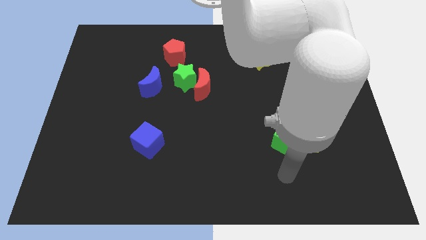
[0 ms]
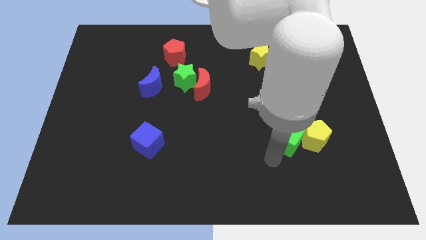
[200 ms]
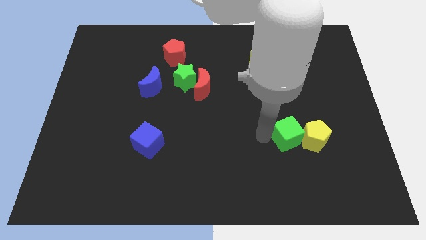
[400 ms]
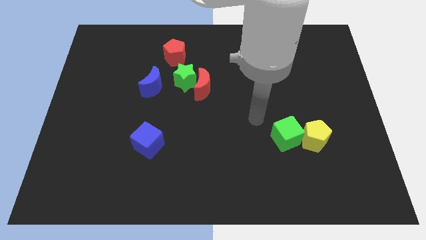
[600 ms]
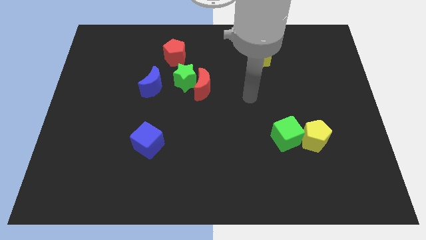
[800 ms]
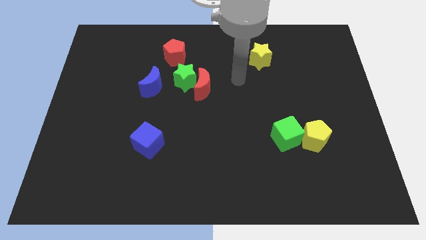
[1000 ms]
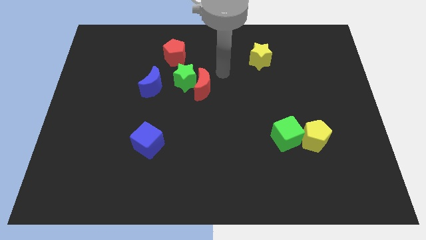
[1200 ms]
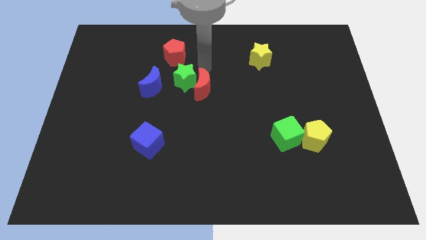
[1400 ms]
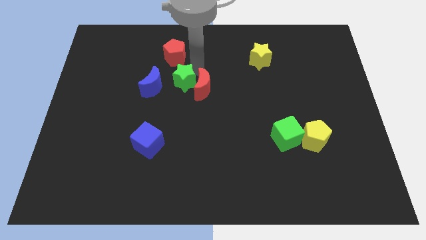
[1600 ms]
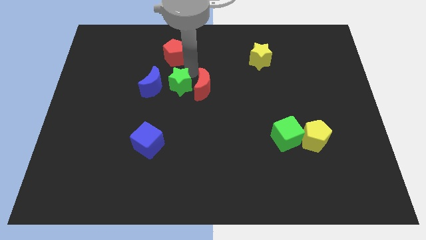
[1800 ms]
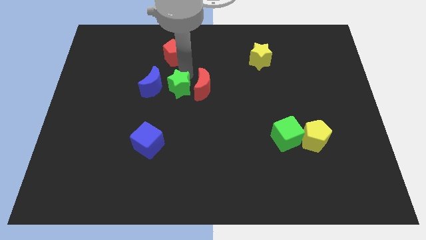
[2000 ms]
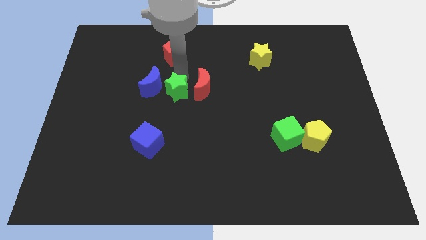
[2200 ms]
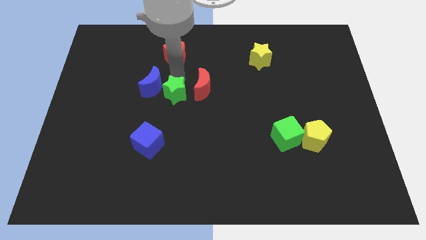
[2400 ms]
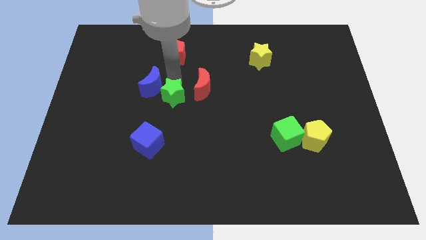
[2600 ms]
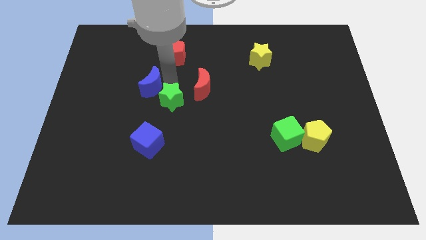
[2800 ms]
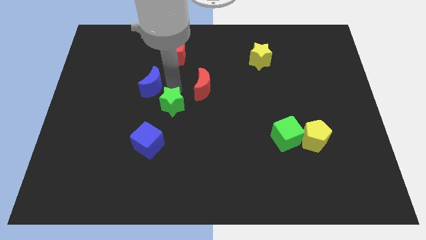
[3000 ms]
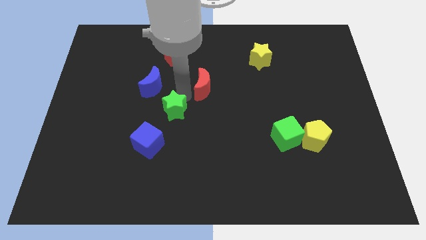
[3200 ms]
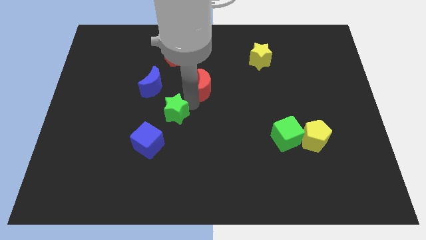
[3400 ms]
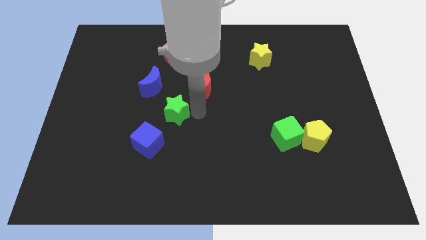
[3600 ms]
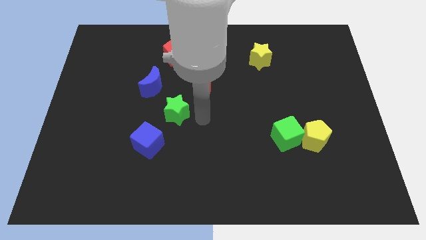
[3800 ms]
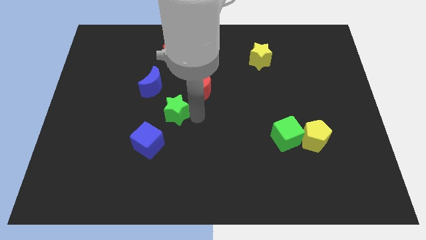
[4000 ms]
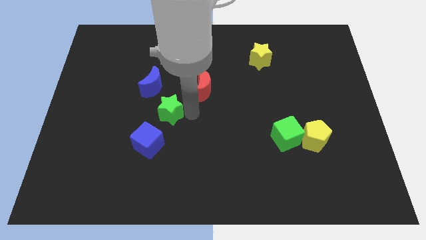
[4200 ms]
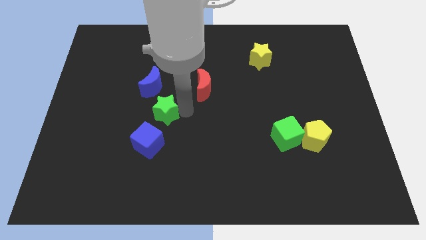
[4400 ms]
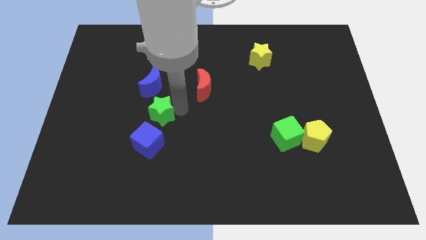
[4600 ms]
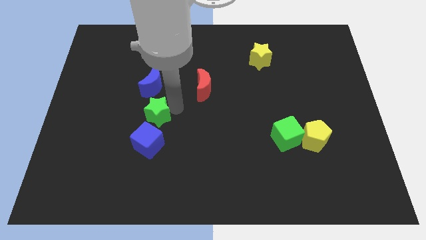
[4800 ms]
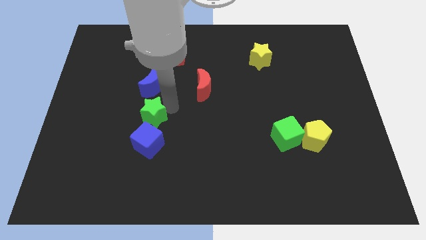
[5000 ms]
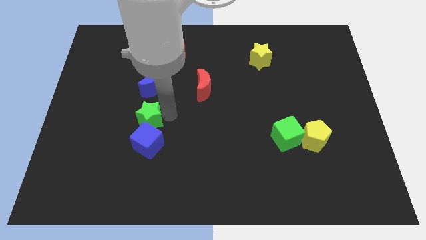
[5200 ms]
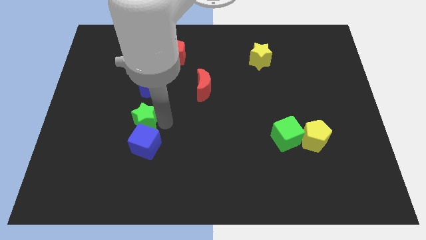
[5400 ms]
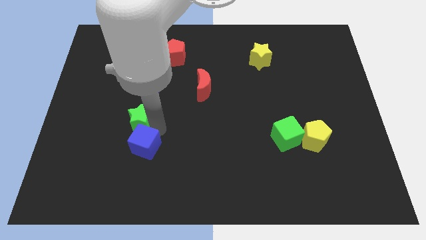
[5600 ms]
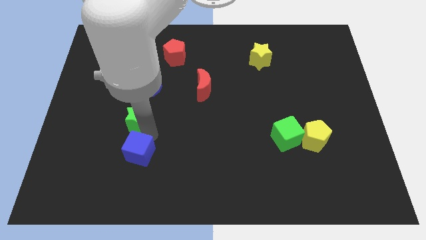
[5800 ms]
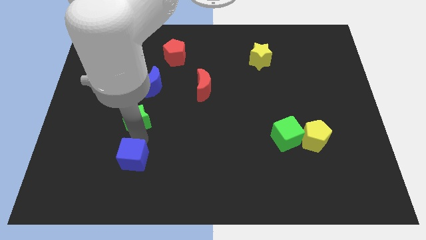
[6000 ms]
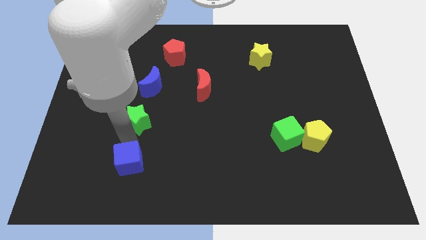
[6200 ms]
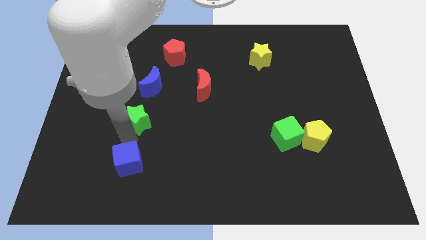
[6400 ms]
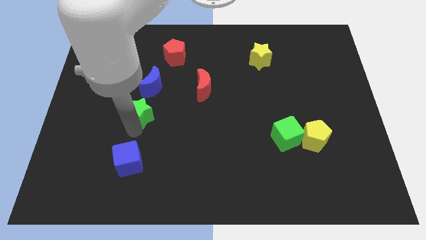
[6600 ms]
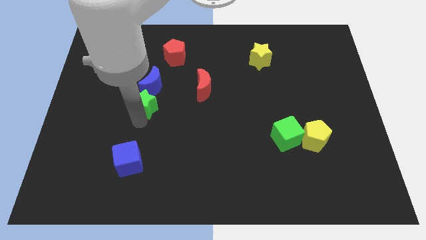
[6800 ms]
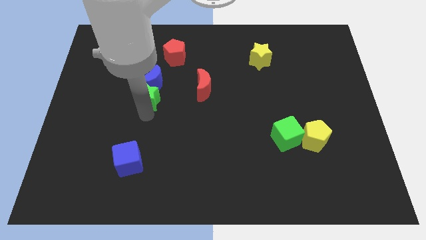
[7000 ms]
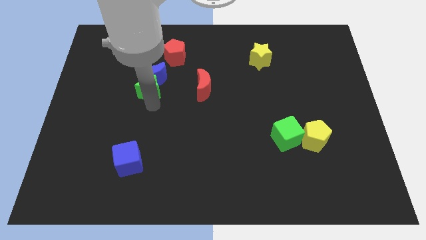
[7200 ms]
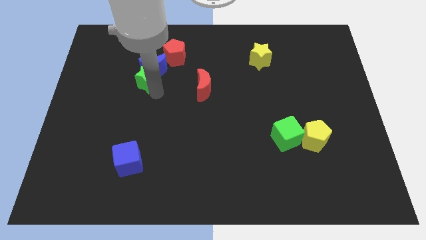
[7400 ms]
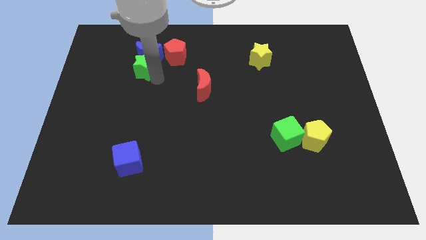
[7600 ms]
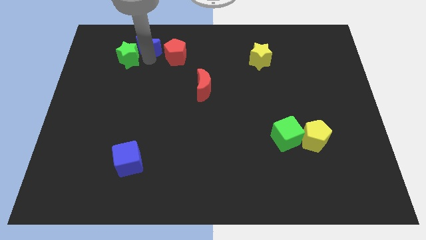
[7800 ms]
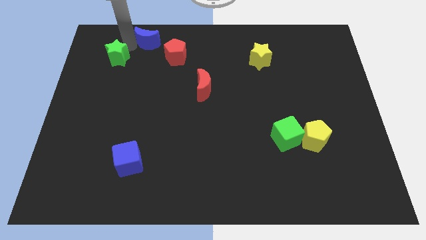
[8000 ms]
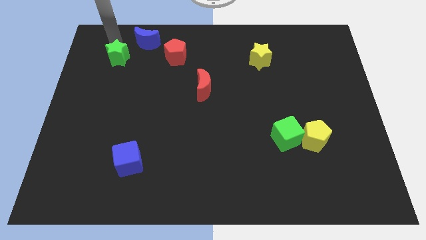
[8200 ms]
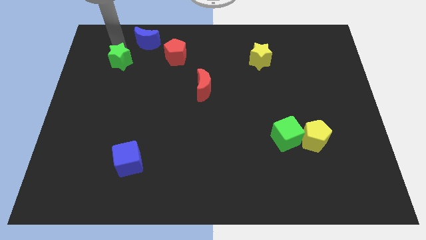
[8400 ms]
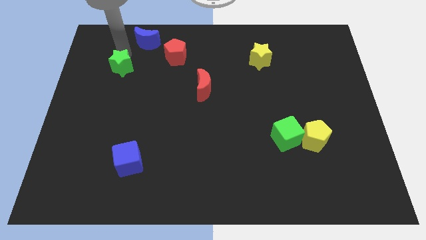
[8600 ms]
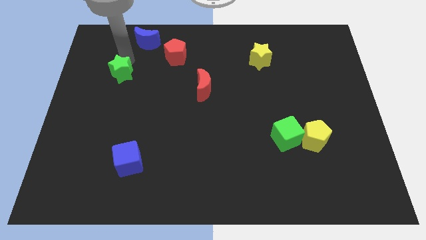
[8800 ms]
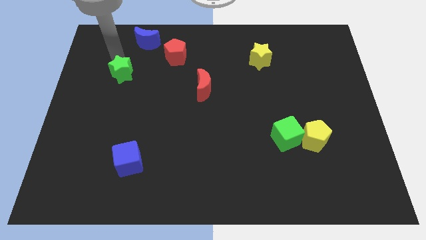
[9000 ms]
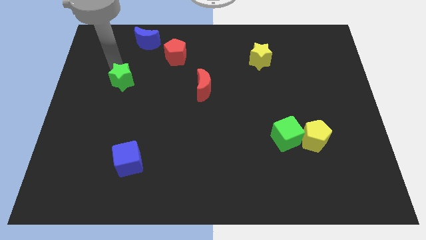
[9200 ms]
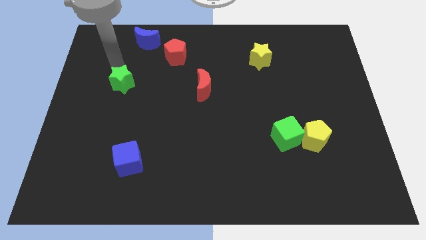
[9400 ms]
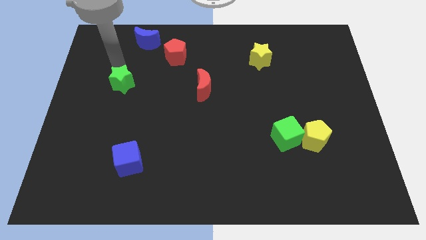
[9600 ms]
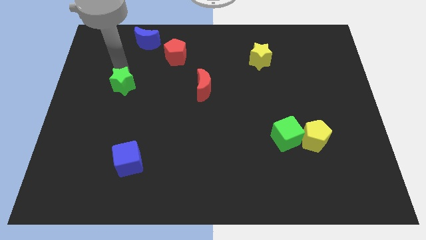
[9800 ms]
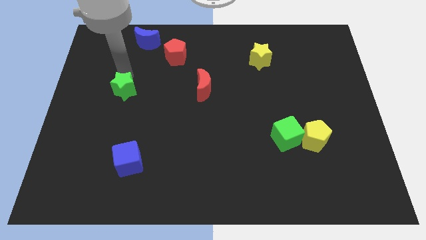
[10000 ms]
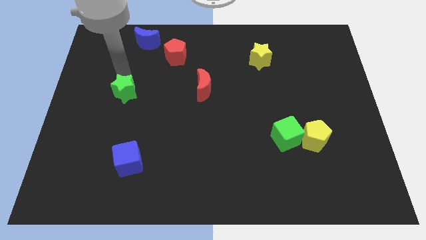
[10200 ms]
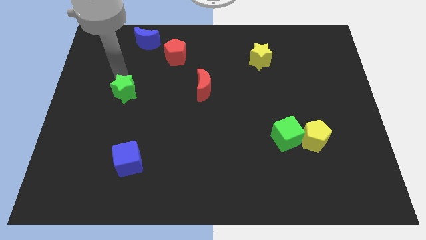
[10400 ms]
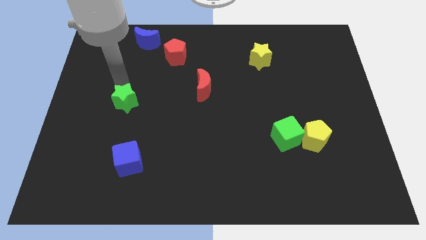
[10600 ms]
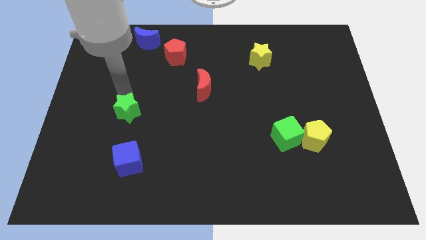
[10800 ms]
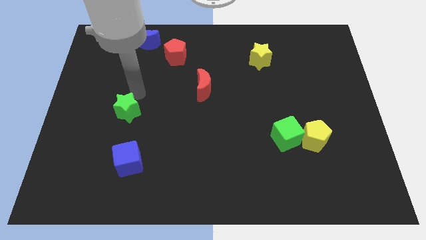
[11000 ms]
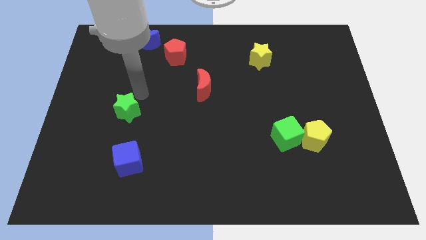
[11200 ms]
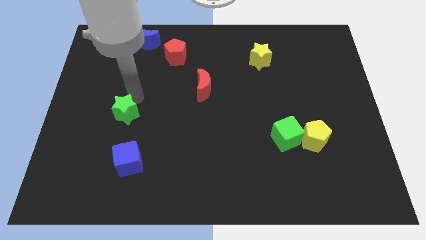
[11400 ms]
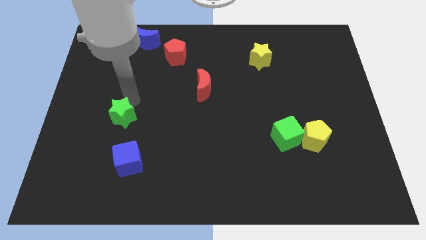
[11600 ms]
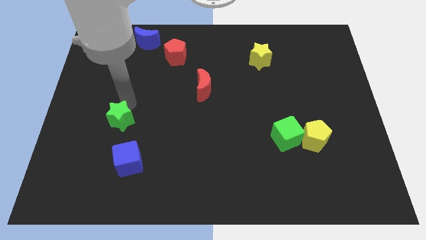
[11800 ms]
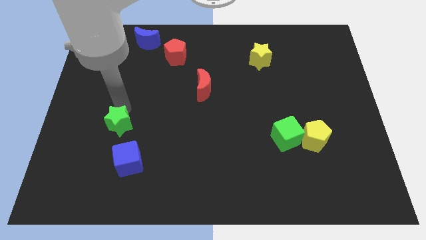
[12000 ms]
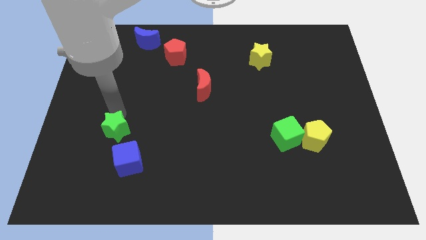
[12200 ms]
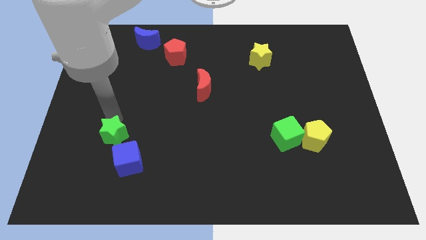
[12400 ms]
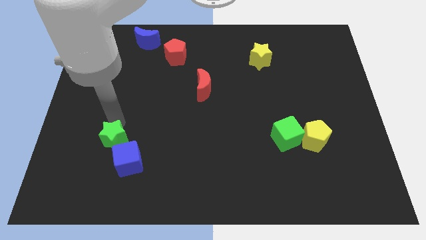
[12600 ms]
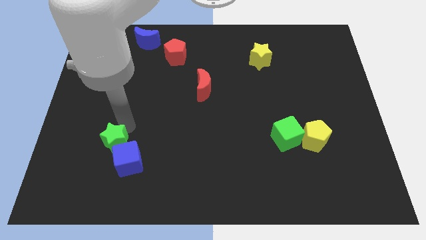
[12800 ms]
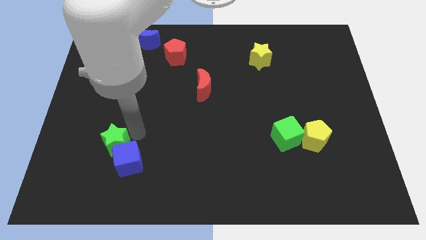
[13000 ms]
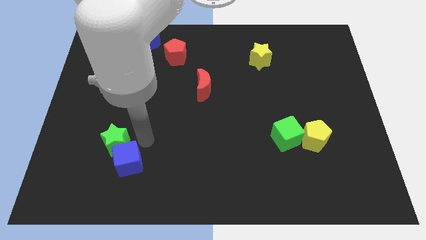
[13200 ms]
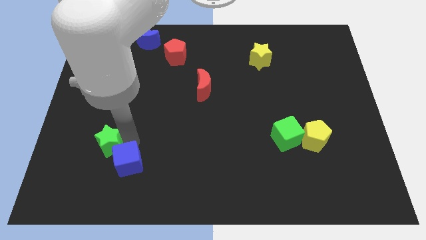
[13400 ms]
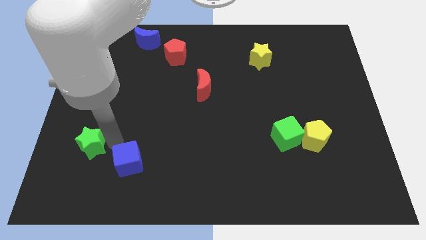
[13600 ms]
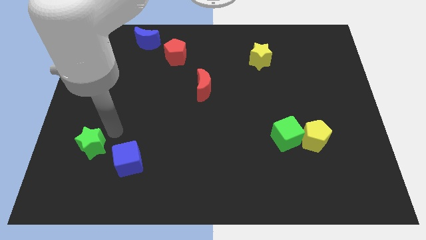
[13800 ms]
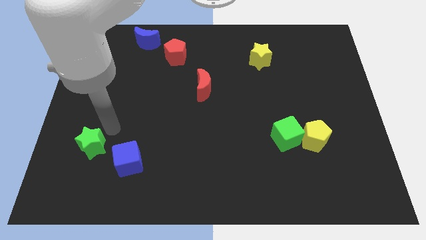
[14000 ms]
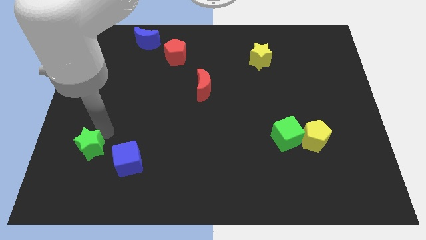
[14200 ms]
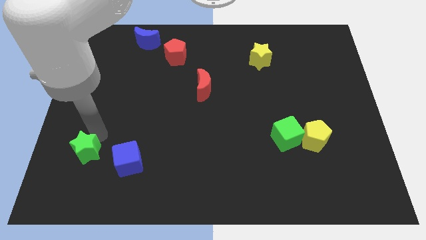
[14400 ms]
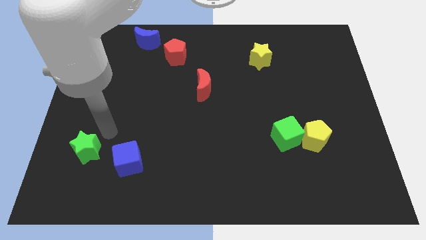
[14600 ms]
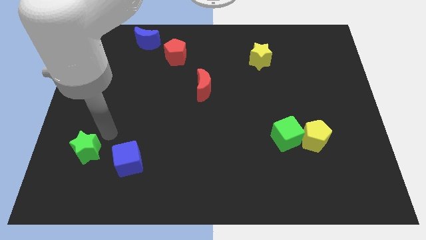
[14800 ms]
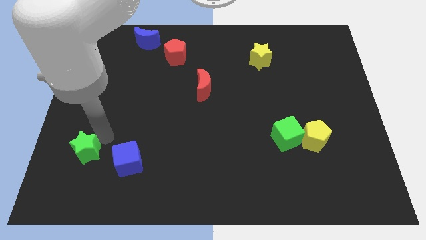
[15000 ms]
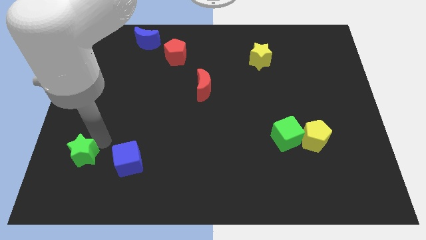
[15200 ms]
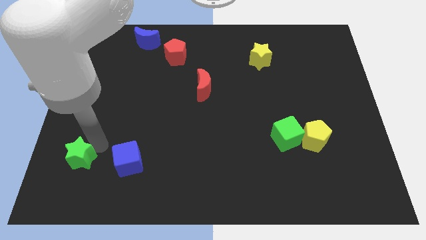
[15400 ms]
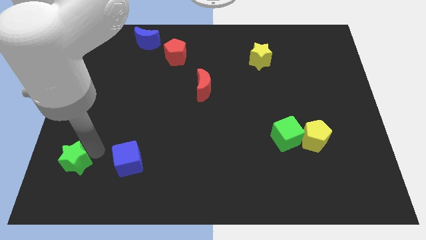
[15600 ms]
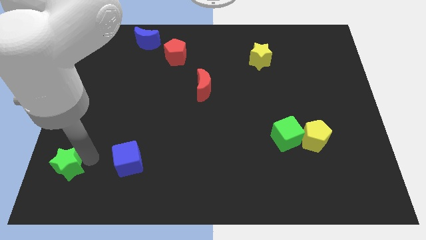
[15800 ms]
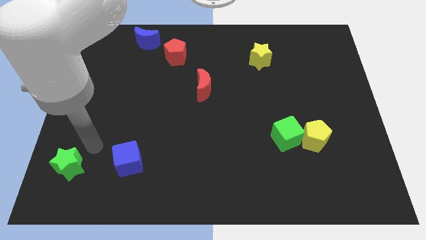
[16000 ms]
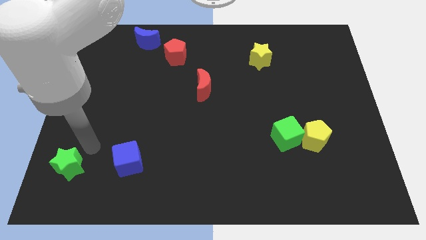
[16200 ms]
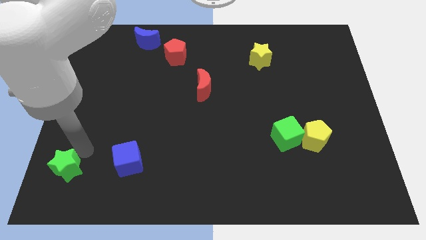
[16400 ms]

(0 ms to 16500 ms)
move the green star to the lower left corner
